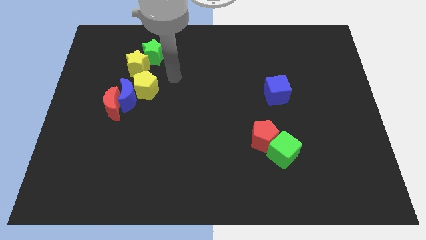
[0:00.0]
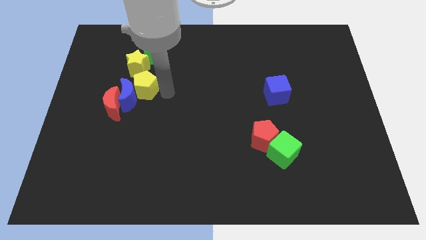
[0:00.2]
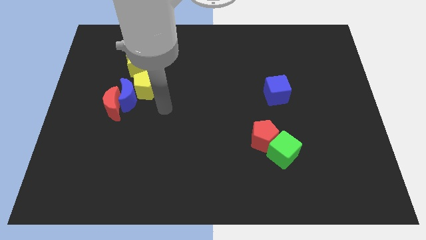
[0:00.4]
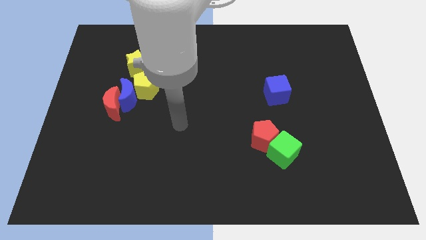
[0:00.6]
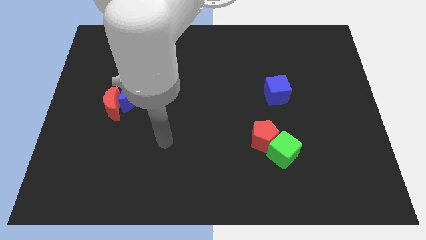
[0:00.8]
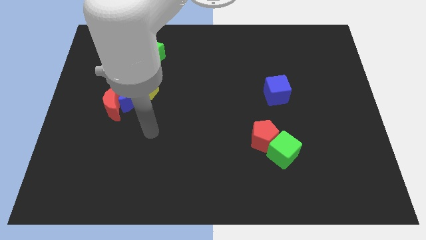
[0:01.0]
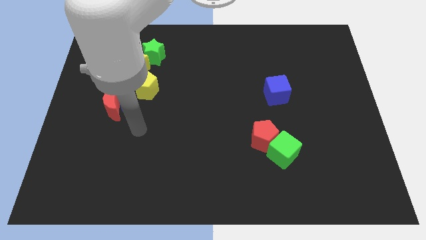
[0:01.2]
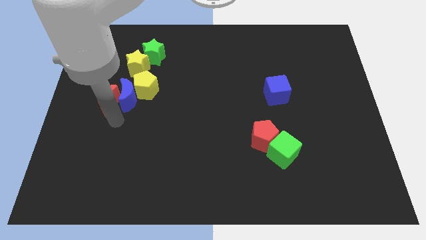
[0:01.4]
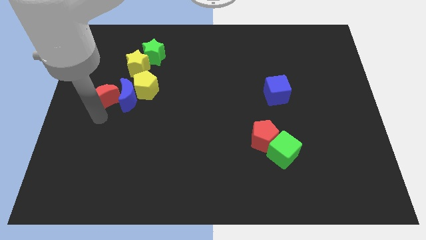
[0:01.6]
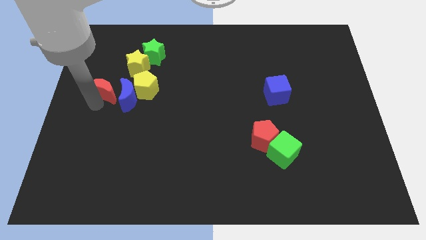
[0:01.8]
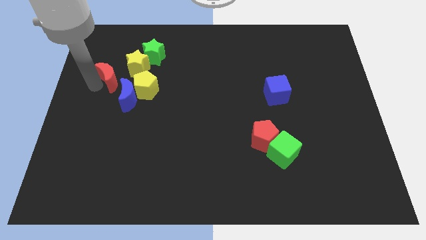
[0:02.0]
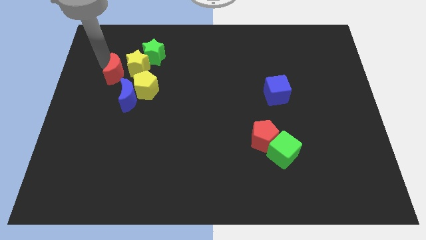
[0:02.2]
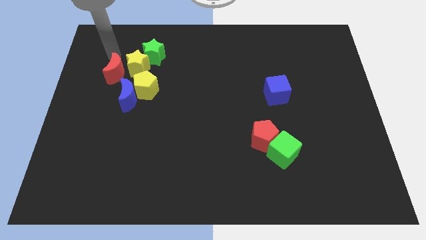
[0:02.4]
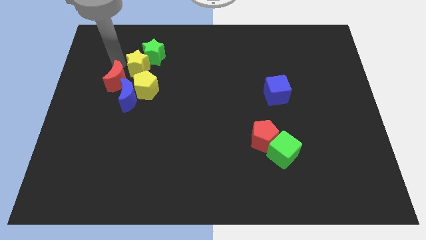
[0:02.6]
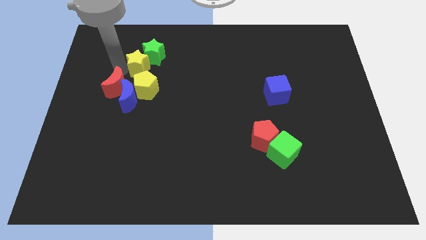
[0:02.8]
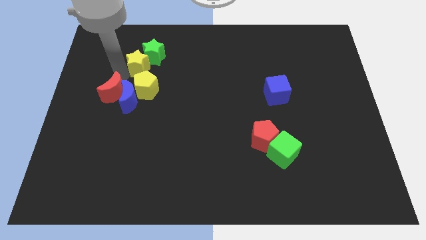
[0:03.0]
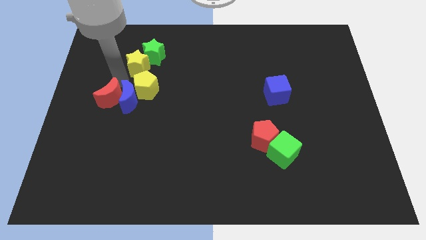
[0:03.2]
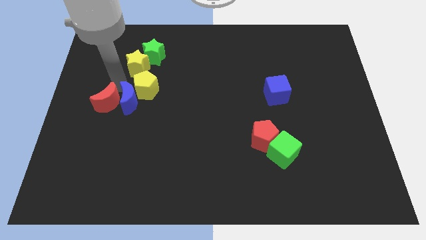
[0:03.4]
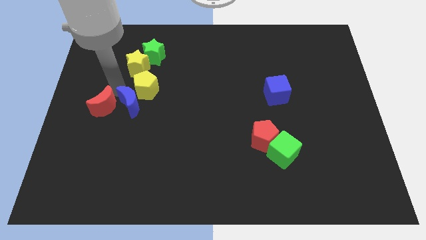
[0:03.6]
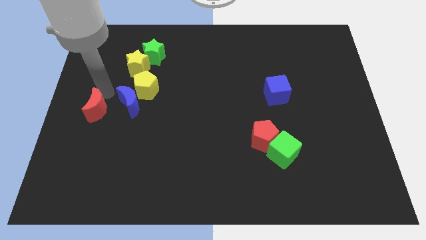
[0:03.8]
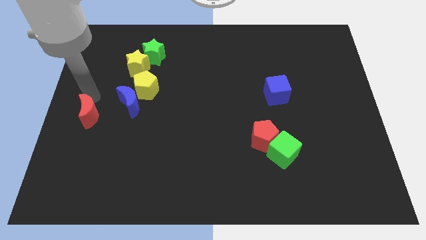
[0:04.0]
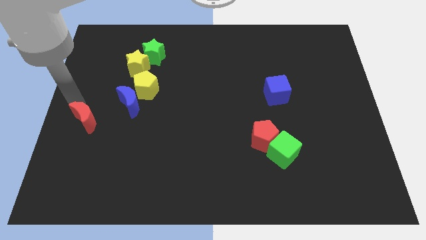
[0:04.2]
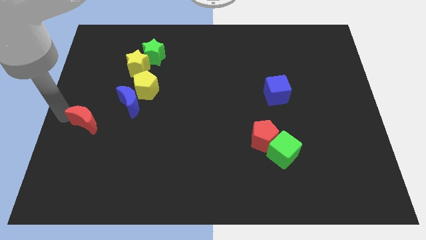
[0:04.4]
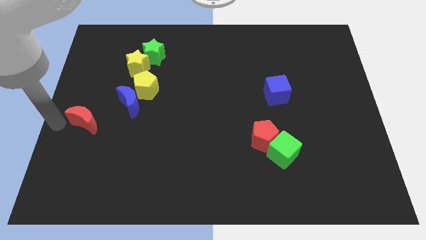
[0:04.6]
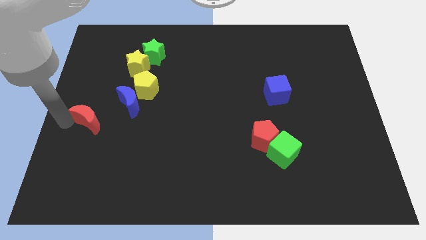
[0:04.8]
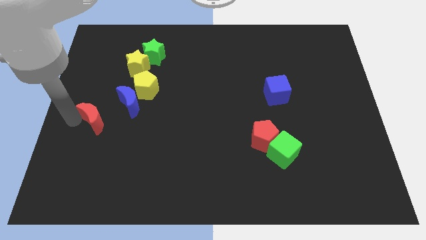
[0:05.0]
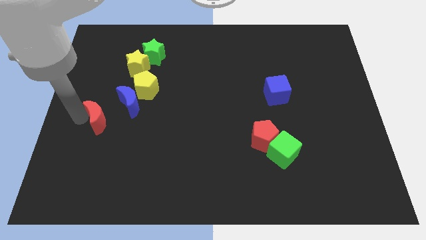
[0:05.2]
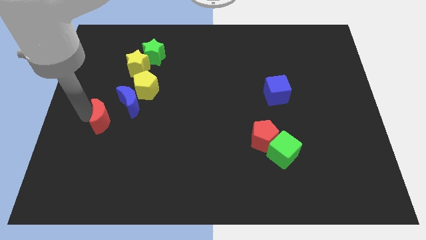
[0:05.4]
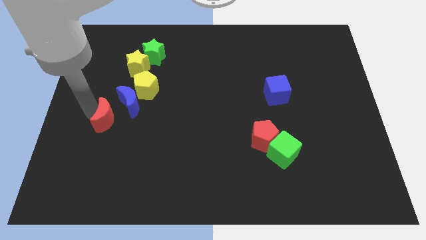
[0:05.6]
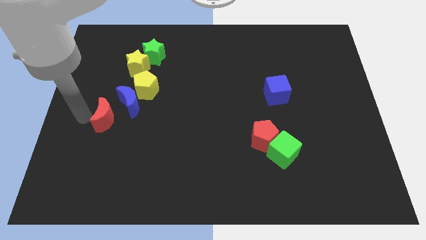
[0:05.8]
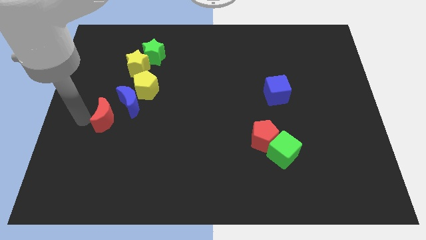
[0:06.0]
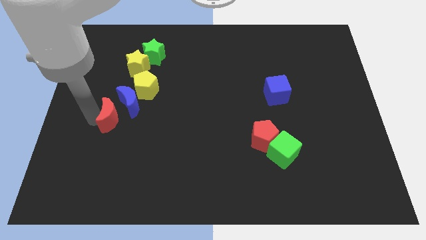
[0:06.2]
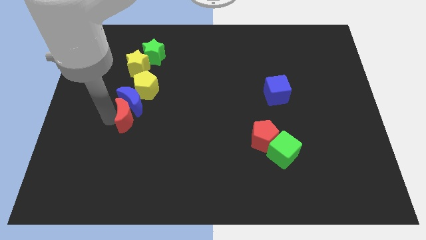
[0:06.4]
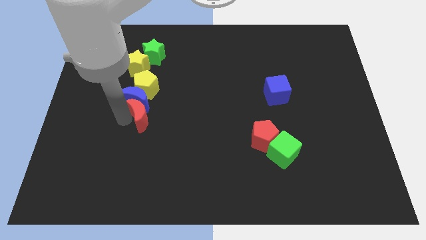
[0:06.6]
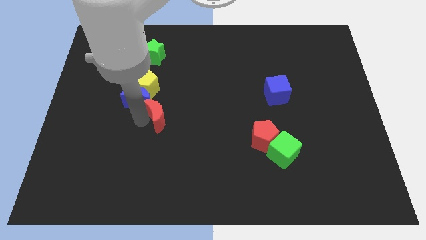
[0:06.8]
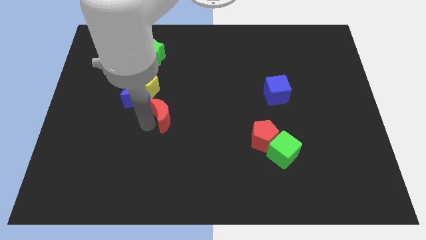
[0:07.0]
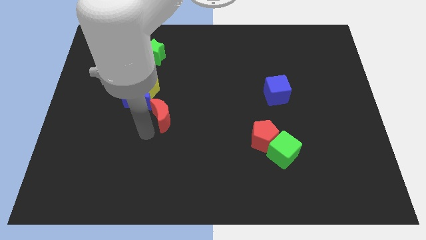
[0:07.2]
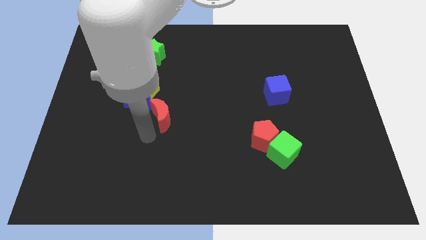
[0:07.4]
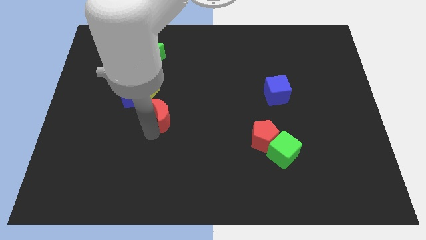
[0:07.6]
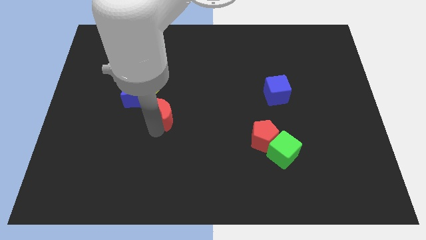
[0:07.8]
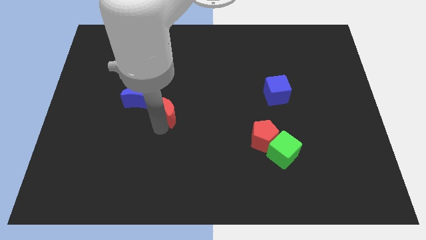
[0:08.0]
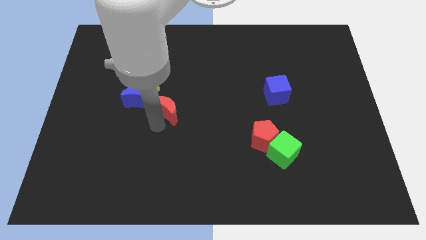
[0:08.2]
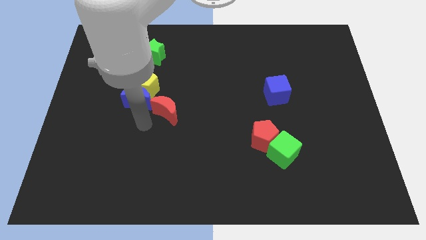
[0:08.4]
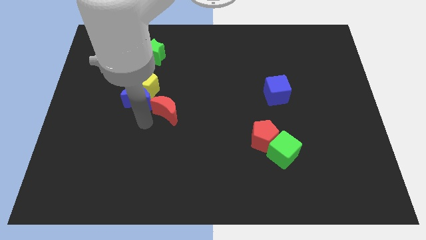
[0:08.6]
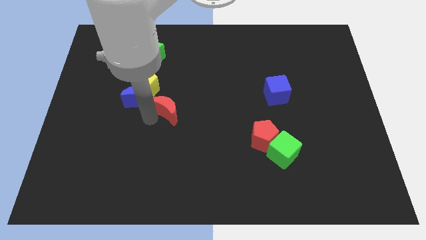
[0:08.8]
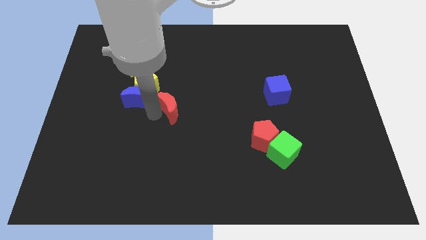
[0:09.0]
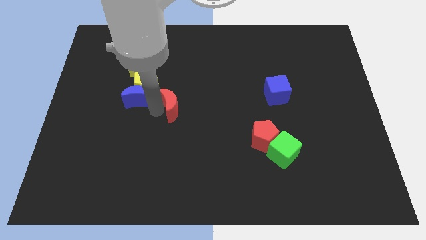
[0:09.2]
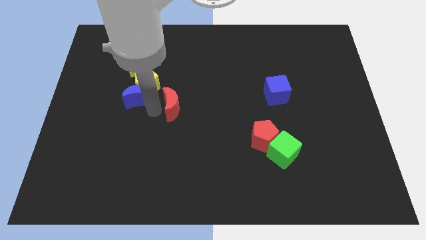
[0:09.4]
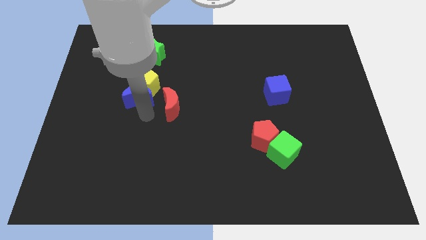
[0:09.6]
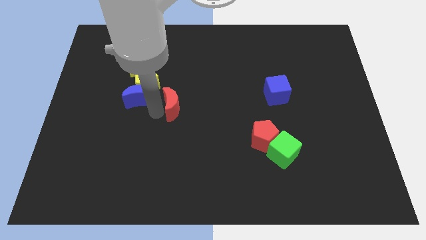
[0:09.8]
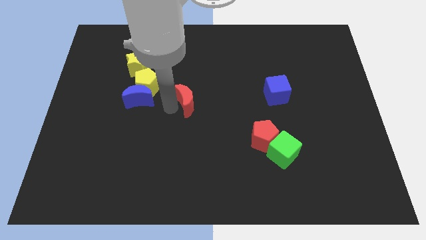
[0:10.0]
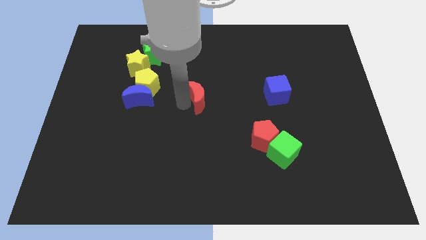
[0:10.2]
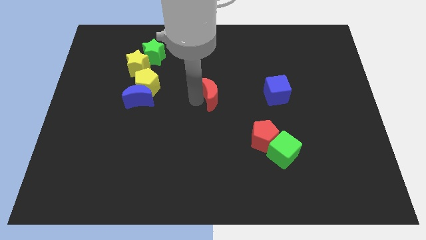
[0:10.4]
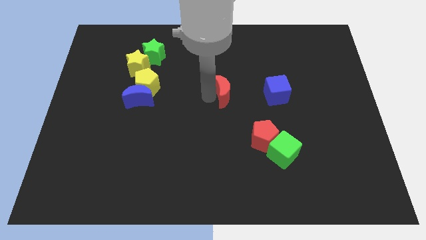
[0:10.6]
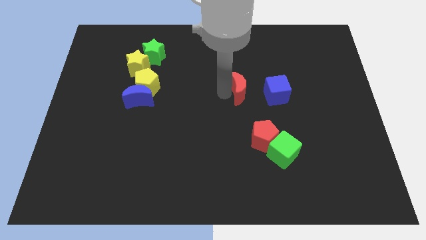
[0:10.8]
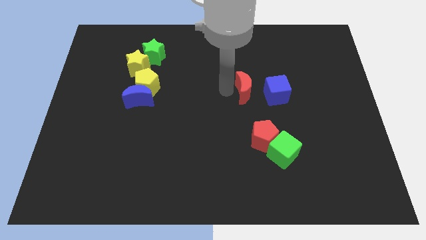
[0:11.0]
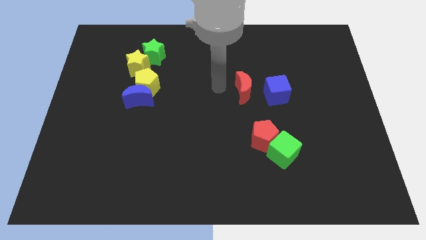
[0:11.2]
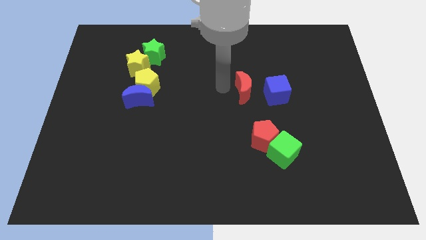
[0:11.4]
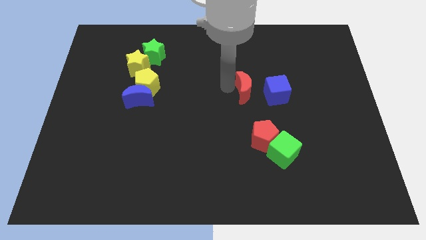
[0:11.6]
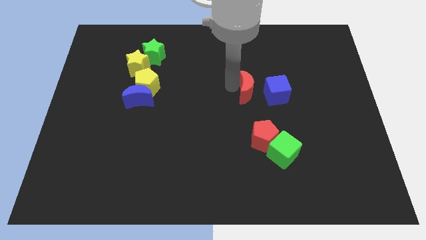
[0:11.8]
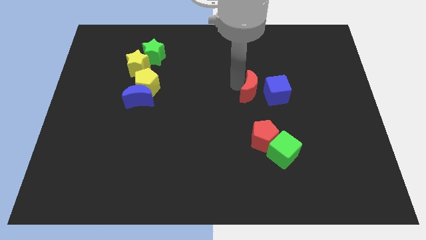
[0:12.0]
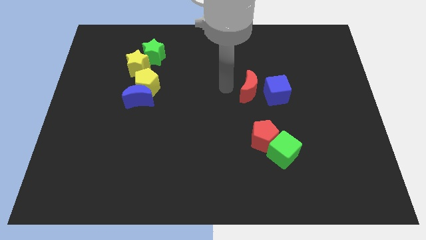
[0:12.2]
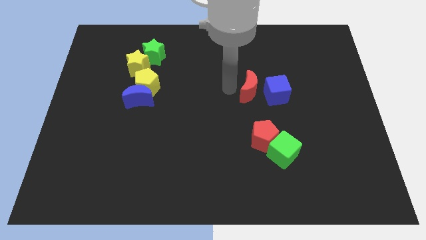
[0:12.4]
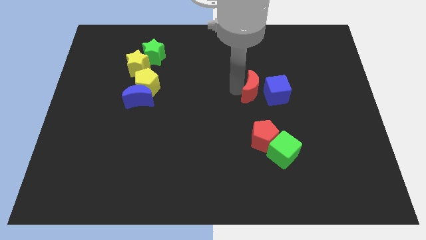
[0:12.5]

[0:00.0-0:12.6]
slide the red moon close to the blue cube
